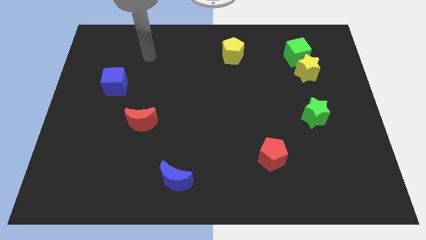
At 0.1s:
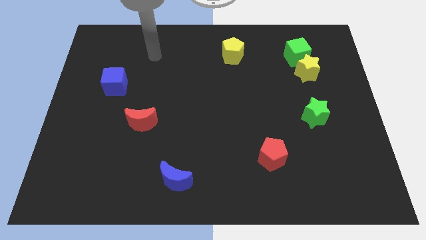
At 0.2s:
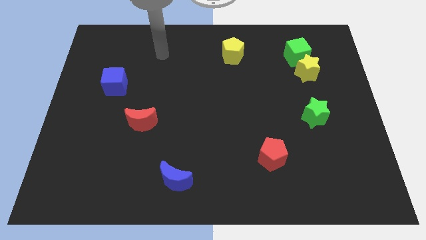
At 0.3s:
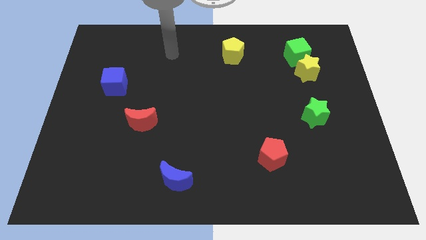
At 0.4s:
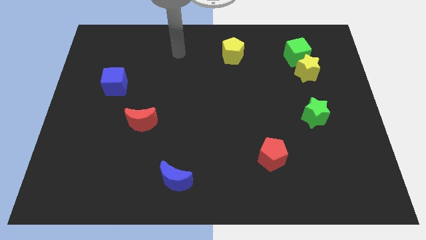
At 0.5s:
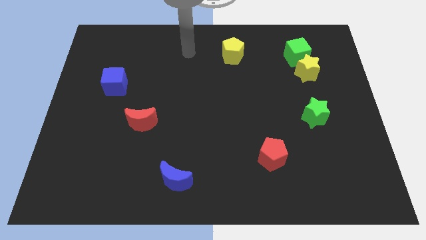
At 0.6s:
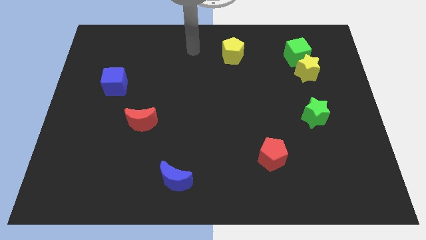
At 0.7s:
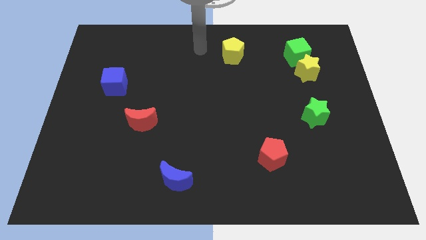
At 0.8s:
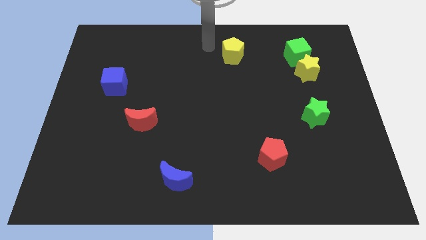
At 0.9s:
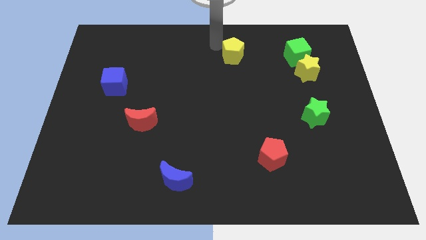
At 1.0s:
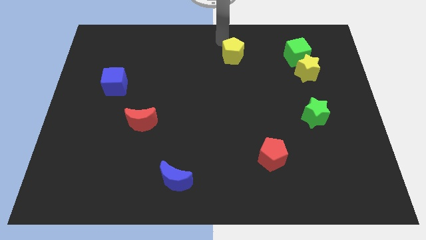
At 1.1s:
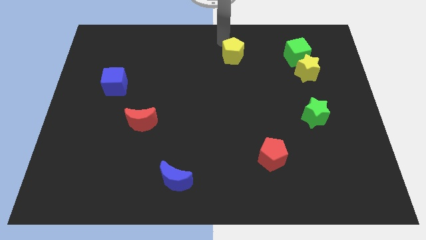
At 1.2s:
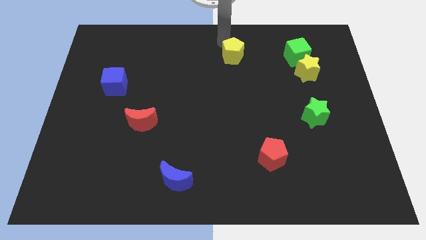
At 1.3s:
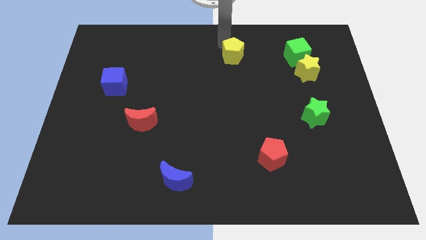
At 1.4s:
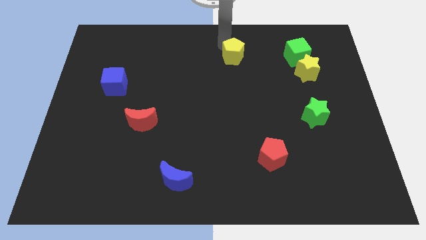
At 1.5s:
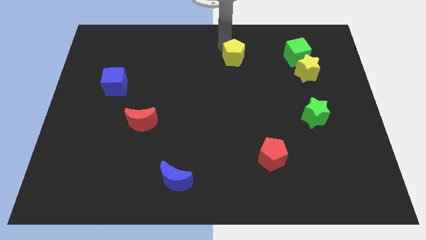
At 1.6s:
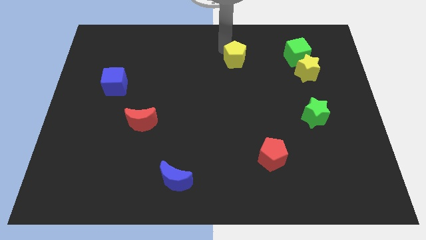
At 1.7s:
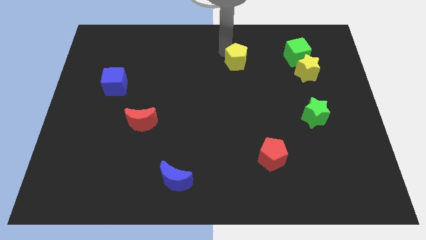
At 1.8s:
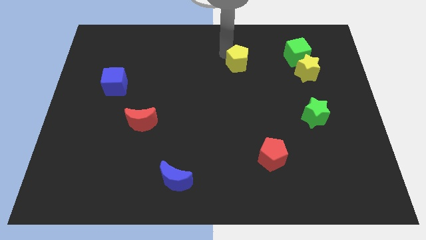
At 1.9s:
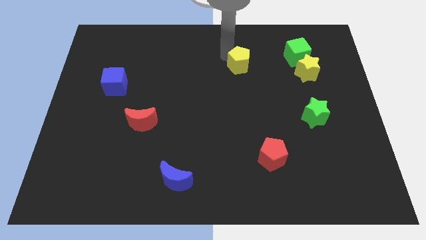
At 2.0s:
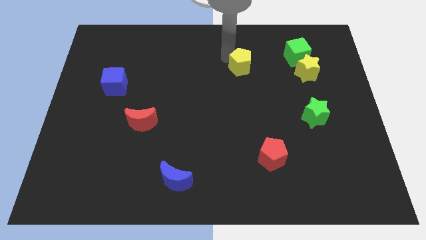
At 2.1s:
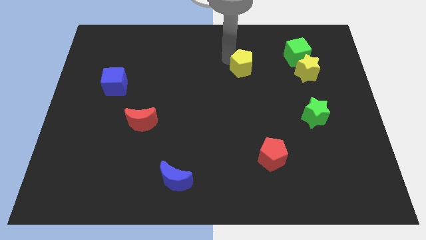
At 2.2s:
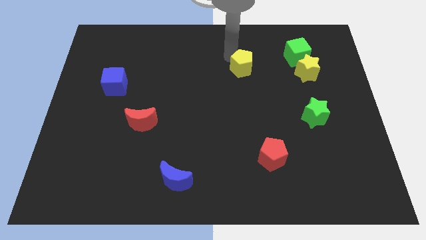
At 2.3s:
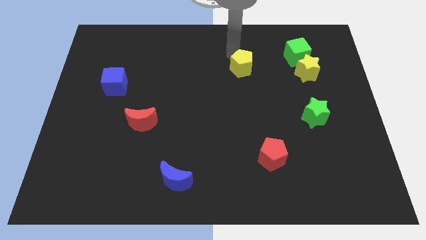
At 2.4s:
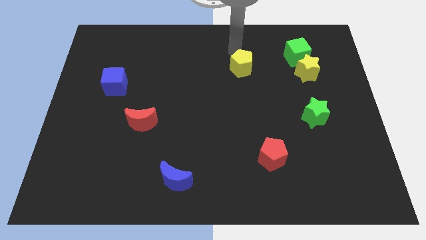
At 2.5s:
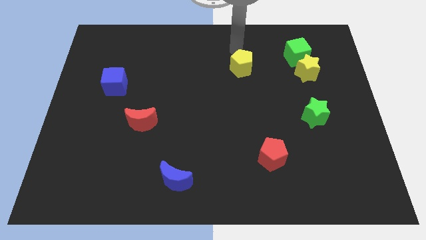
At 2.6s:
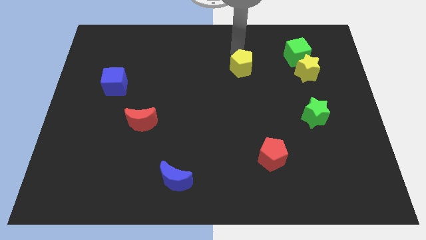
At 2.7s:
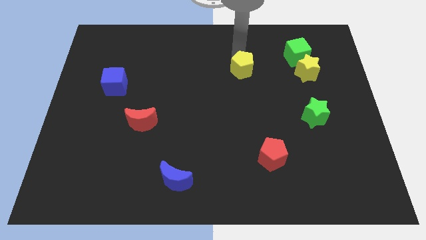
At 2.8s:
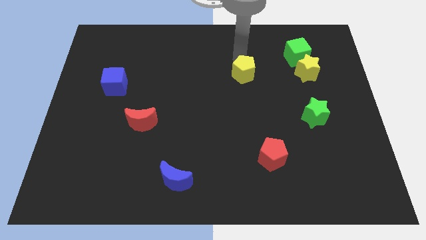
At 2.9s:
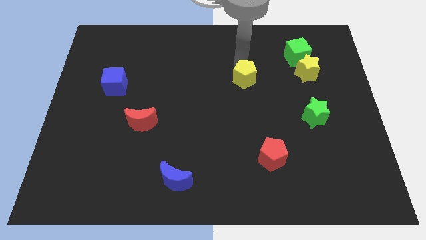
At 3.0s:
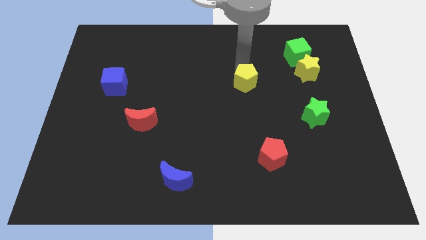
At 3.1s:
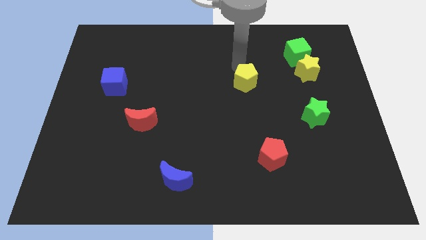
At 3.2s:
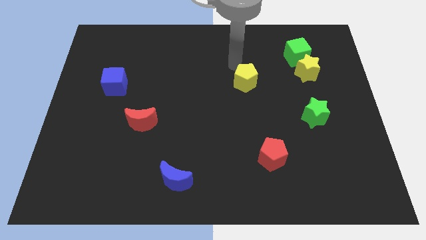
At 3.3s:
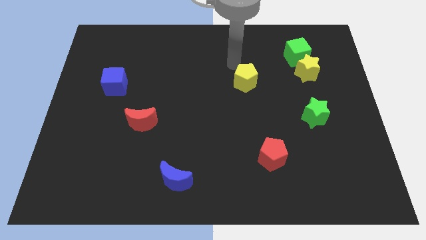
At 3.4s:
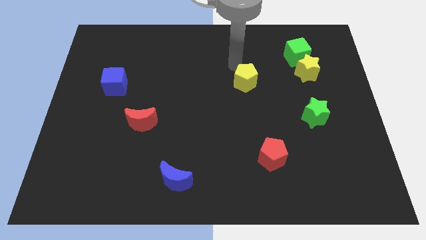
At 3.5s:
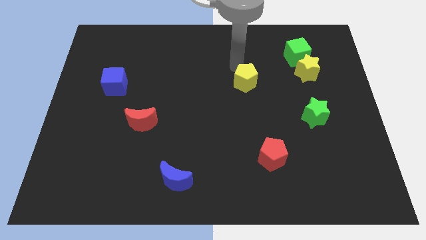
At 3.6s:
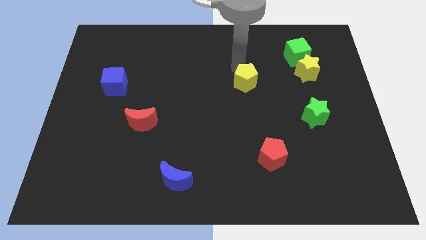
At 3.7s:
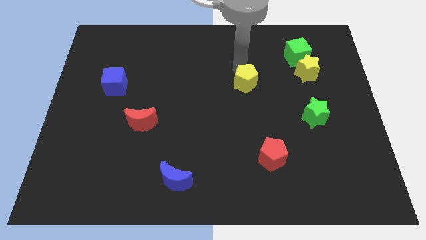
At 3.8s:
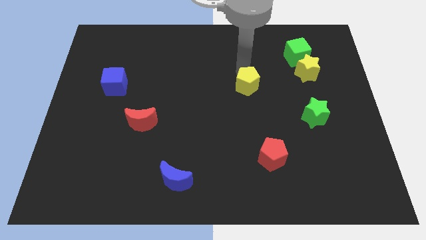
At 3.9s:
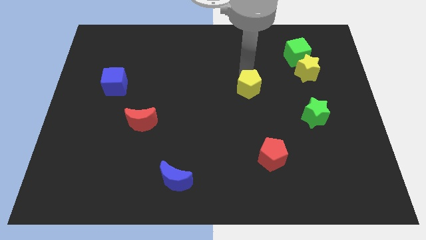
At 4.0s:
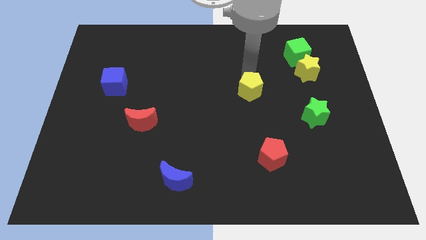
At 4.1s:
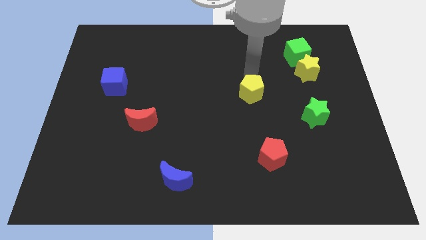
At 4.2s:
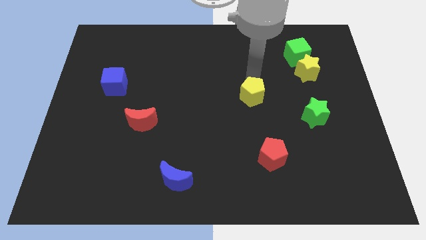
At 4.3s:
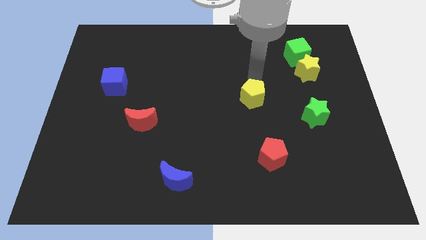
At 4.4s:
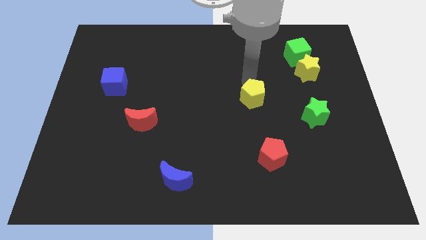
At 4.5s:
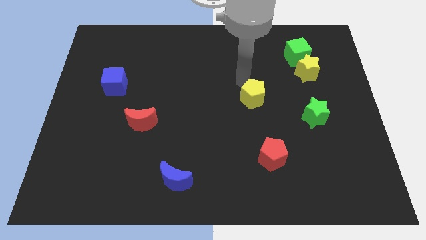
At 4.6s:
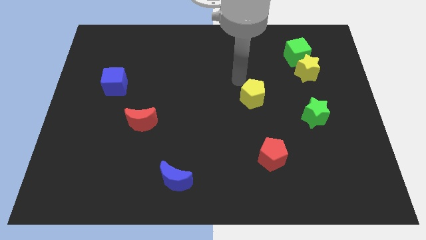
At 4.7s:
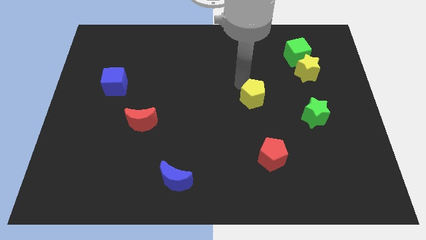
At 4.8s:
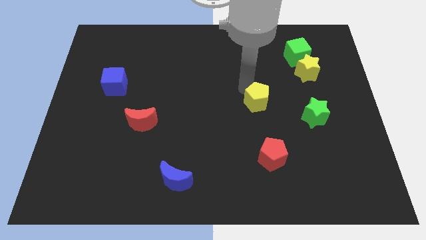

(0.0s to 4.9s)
push the yellow pentagon to the left side of the green star

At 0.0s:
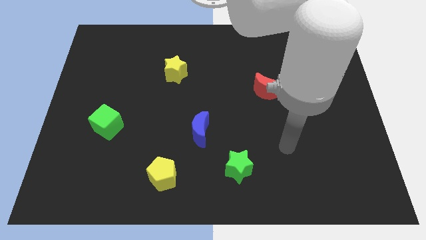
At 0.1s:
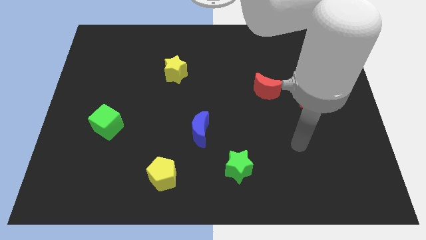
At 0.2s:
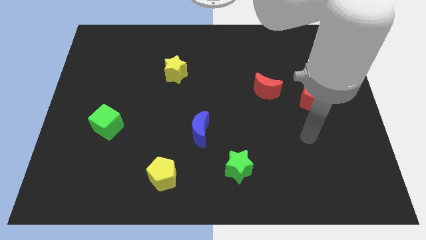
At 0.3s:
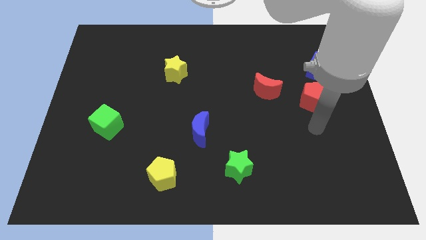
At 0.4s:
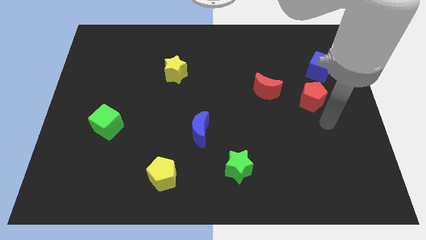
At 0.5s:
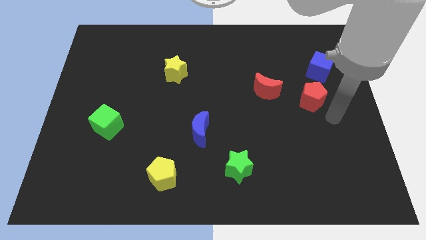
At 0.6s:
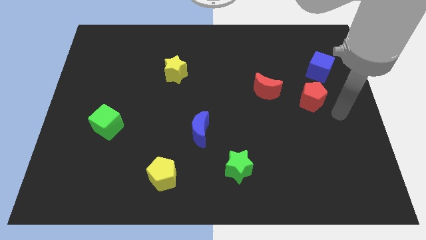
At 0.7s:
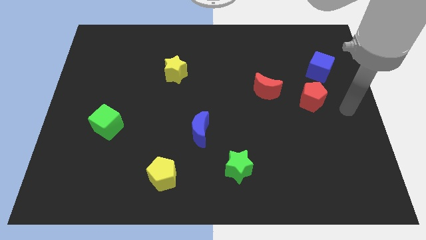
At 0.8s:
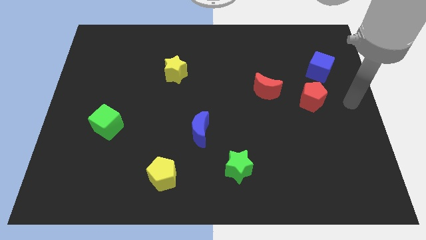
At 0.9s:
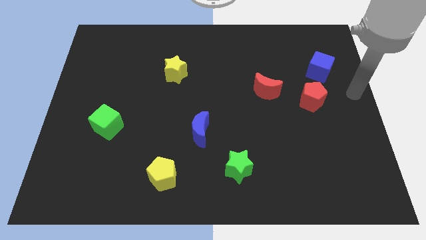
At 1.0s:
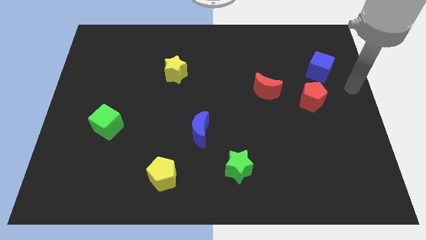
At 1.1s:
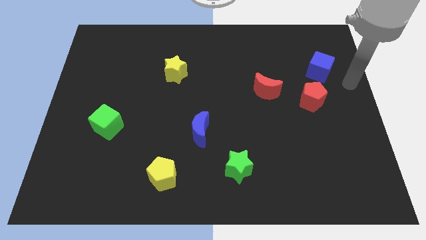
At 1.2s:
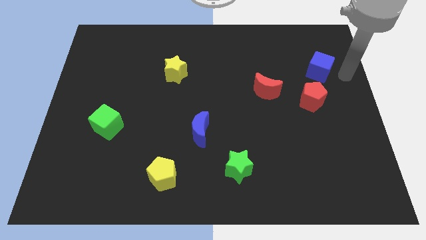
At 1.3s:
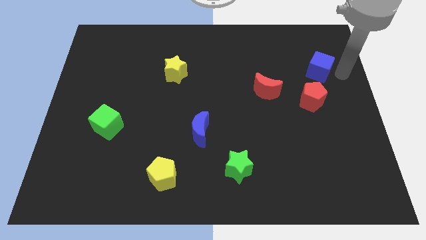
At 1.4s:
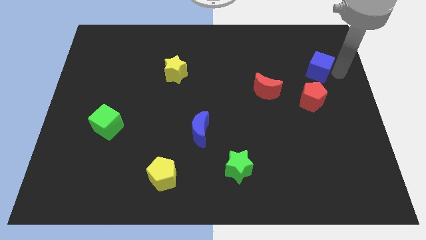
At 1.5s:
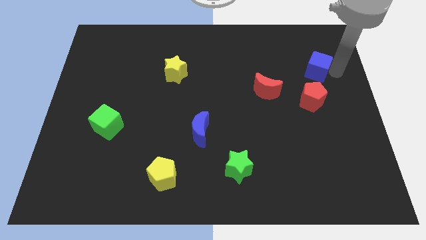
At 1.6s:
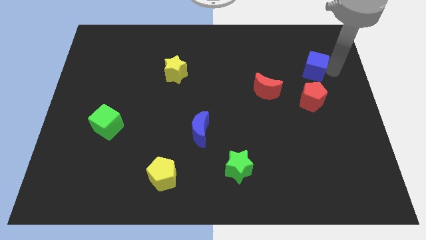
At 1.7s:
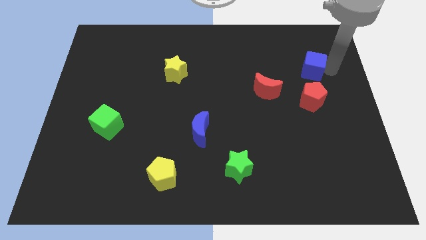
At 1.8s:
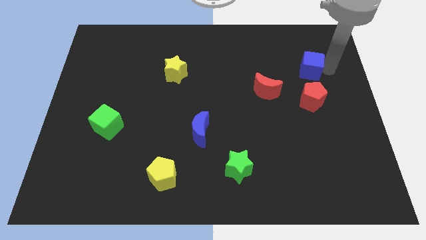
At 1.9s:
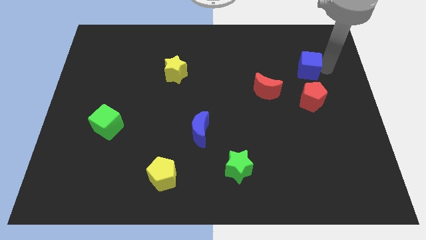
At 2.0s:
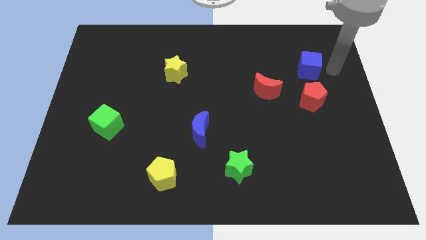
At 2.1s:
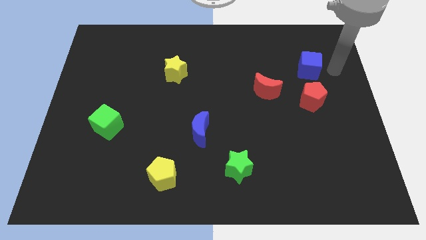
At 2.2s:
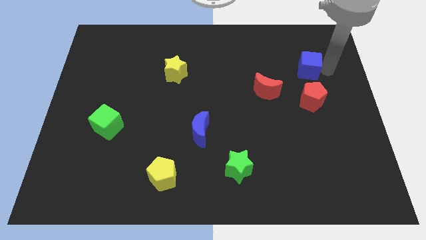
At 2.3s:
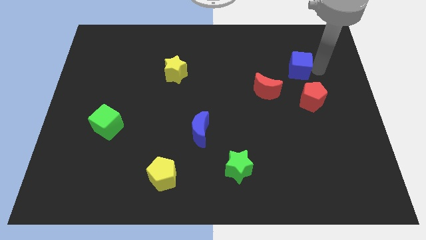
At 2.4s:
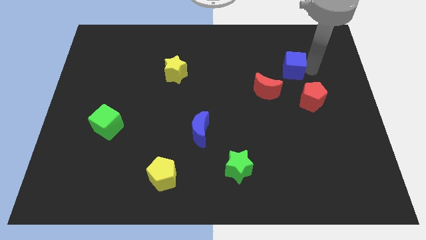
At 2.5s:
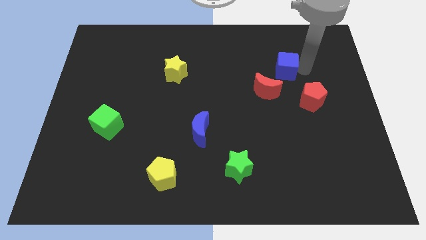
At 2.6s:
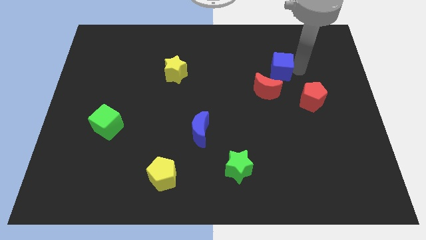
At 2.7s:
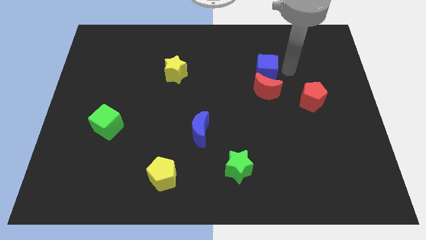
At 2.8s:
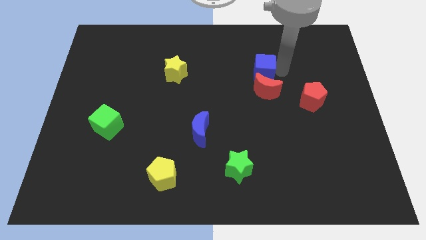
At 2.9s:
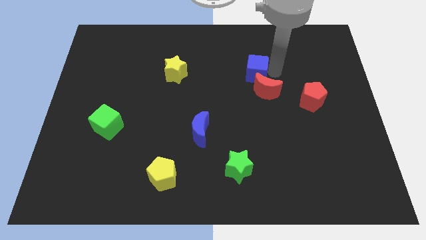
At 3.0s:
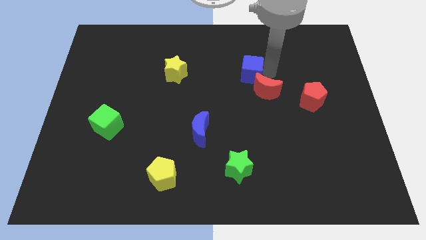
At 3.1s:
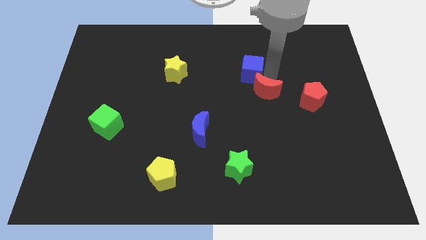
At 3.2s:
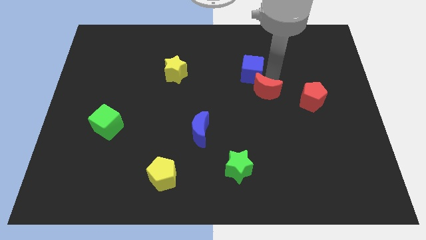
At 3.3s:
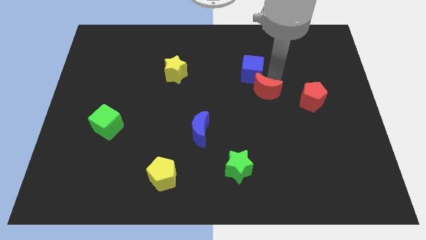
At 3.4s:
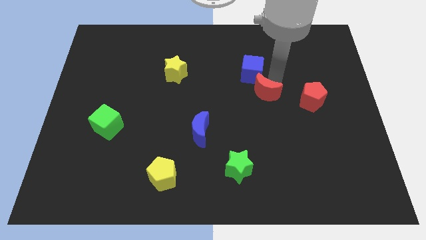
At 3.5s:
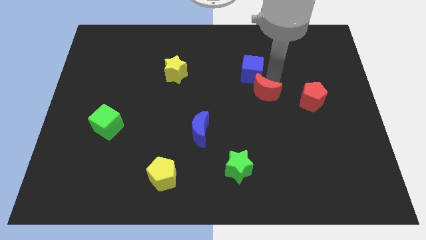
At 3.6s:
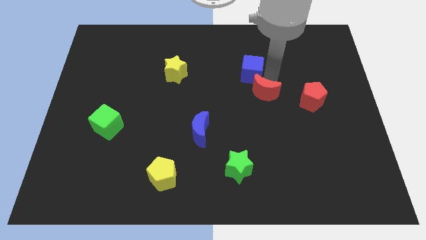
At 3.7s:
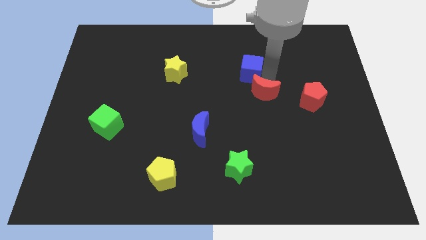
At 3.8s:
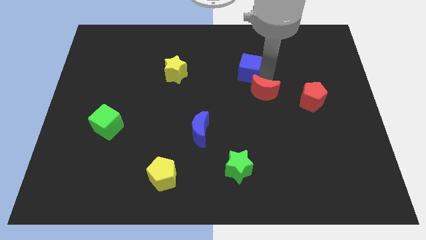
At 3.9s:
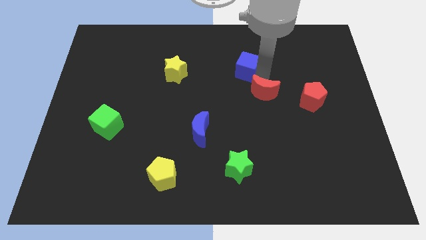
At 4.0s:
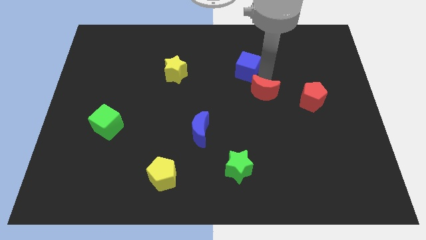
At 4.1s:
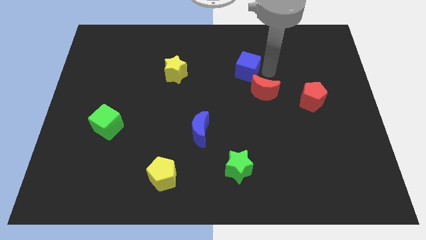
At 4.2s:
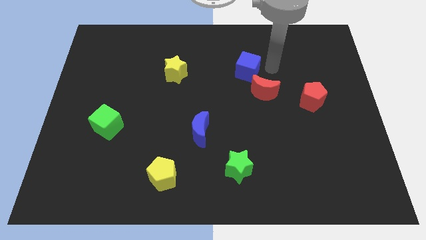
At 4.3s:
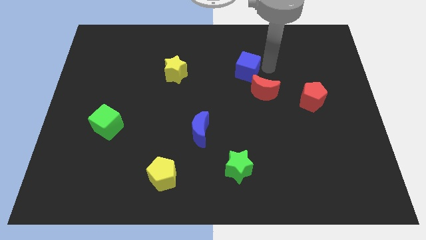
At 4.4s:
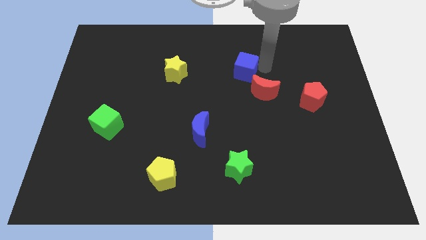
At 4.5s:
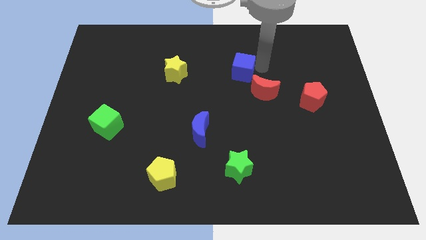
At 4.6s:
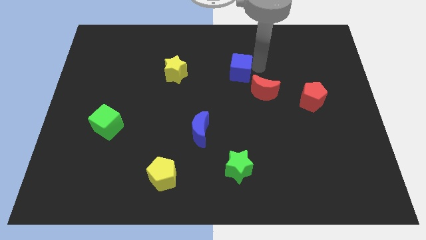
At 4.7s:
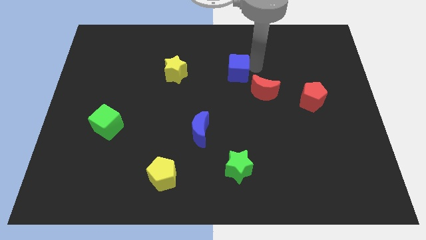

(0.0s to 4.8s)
slide the blue cube right of the yellow star
